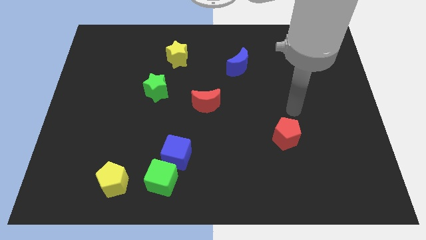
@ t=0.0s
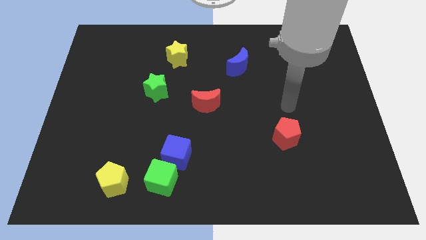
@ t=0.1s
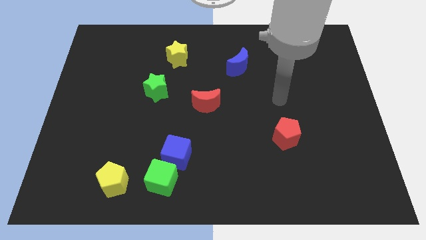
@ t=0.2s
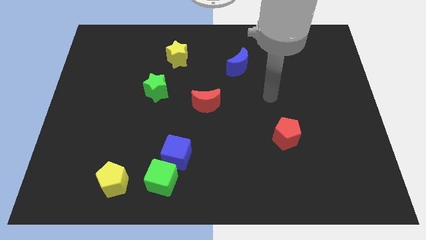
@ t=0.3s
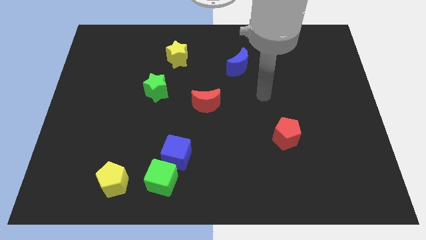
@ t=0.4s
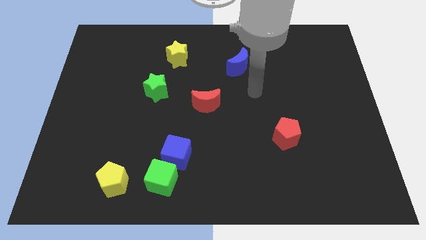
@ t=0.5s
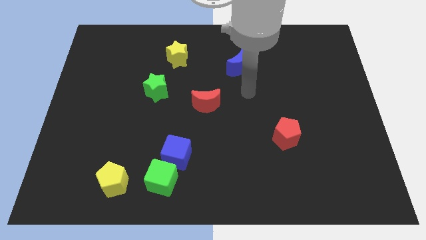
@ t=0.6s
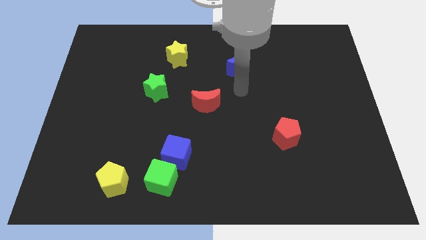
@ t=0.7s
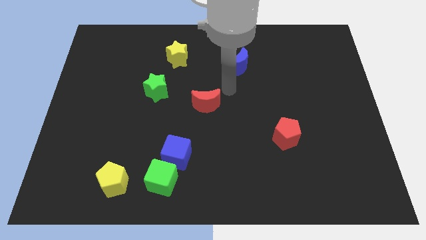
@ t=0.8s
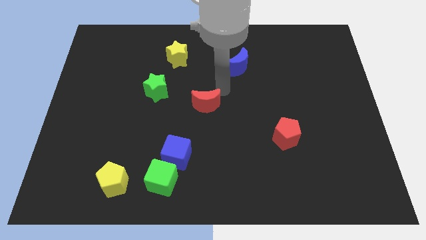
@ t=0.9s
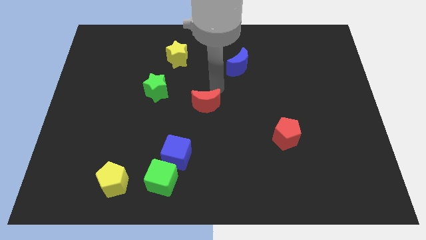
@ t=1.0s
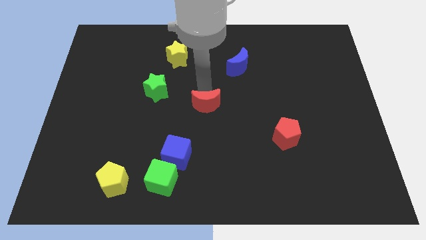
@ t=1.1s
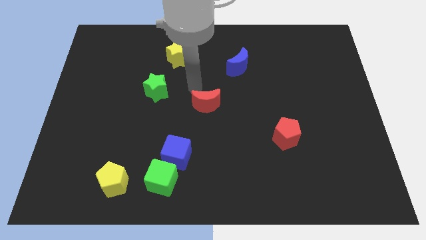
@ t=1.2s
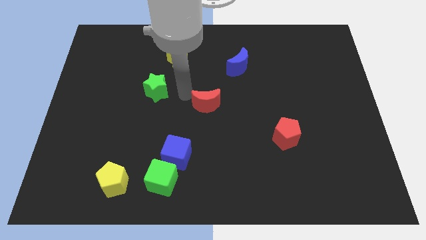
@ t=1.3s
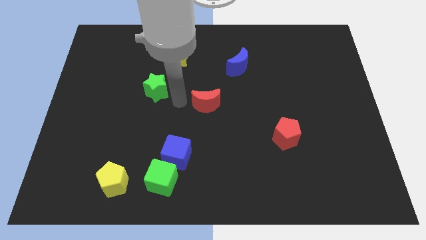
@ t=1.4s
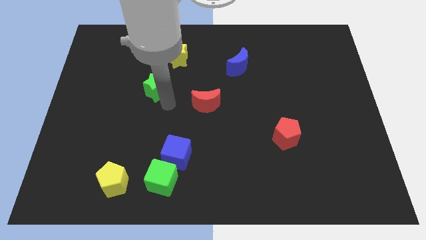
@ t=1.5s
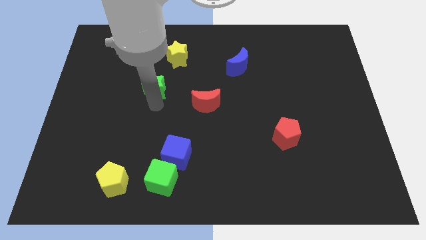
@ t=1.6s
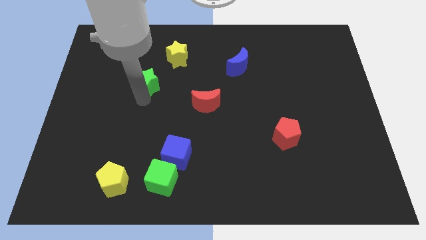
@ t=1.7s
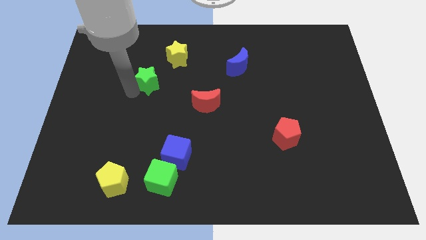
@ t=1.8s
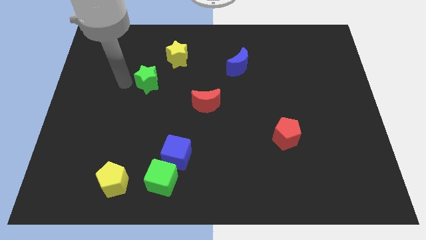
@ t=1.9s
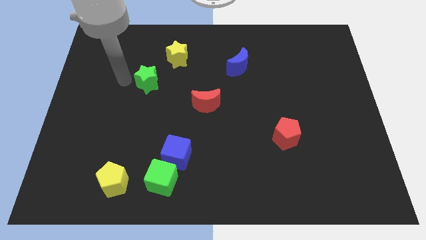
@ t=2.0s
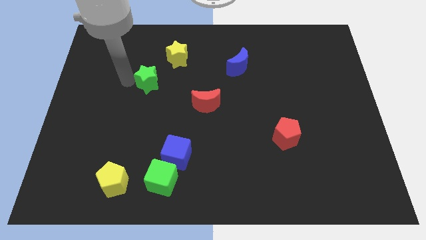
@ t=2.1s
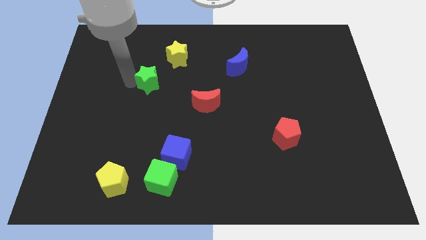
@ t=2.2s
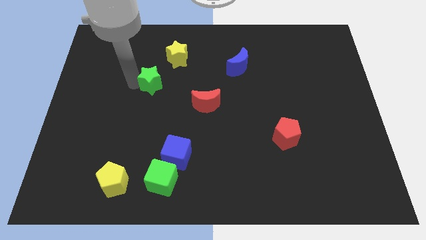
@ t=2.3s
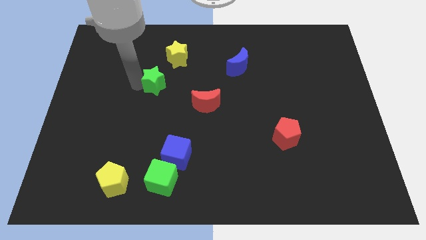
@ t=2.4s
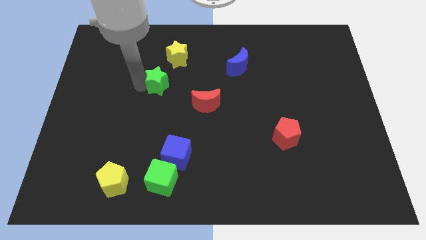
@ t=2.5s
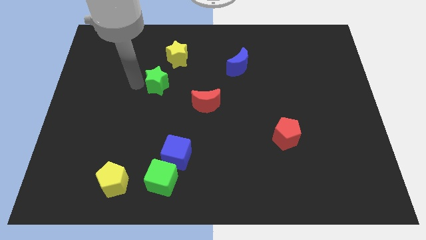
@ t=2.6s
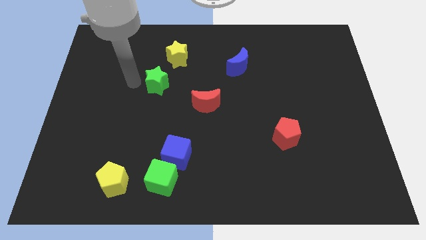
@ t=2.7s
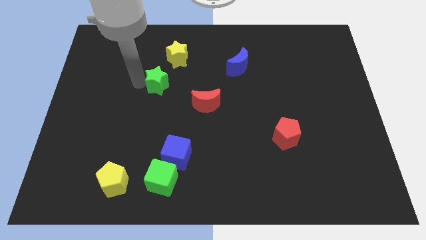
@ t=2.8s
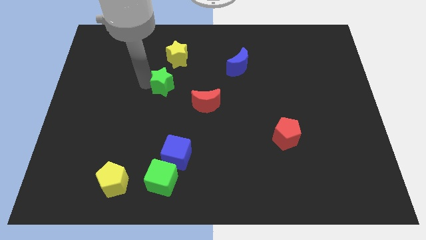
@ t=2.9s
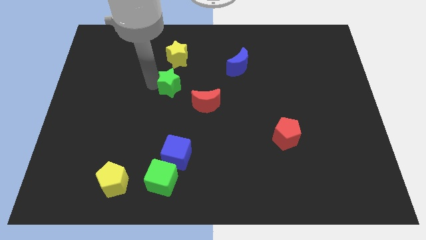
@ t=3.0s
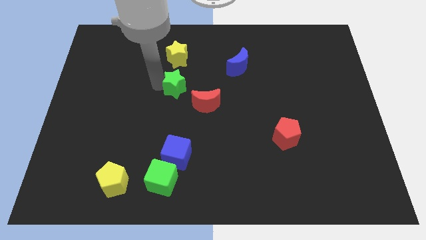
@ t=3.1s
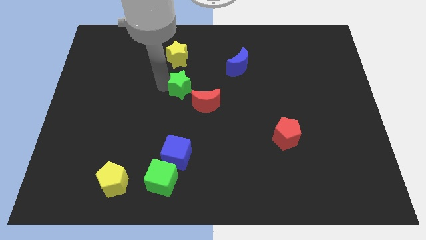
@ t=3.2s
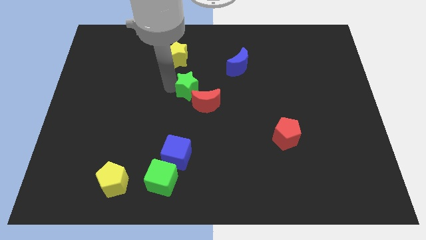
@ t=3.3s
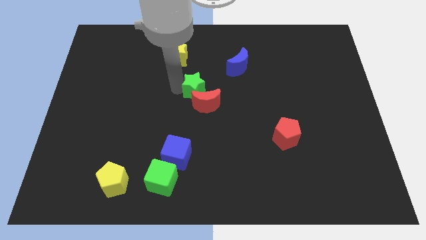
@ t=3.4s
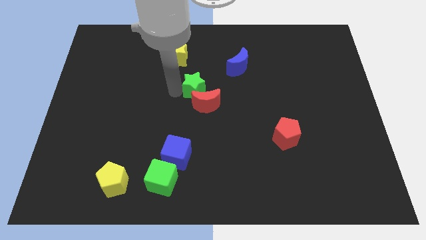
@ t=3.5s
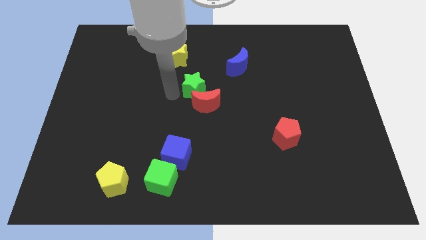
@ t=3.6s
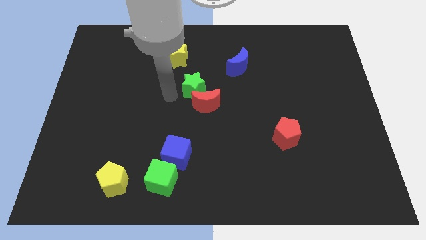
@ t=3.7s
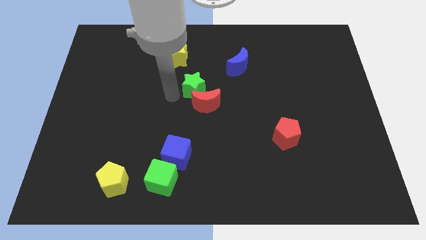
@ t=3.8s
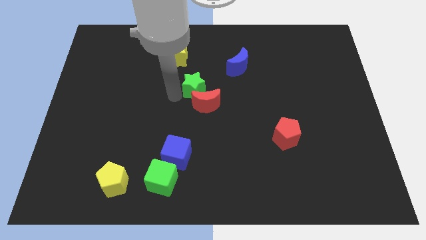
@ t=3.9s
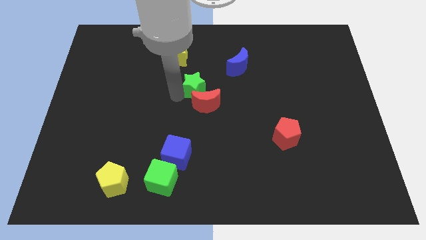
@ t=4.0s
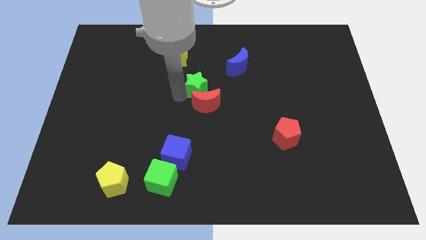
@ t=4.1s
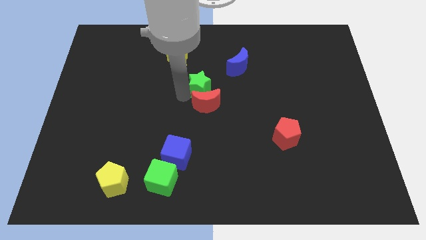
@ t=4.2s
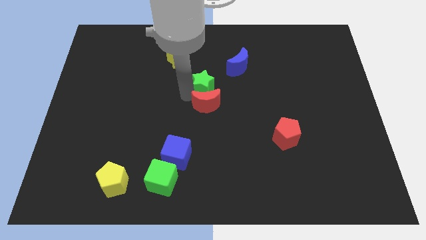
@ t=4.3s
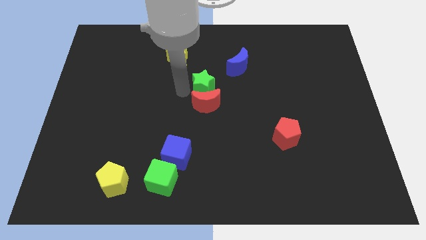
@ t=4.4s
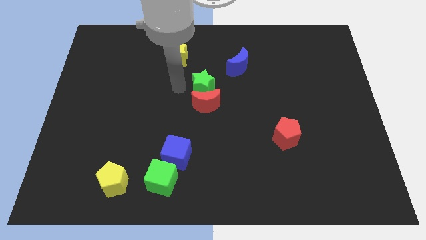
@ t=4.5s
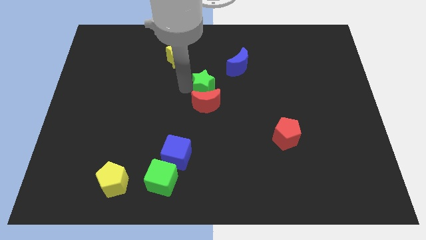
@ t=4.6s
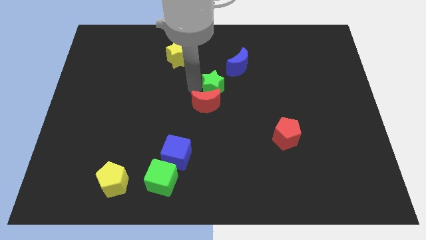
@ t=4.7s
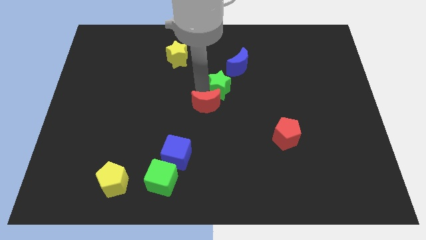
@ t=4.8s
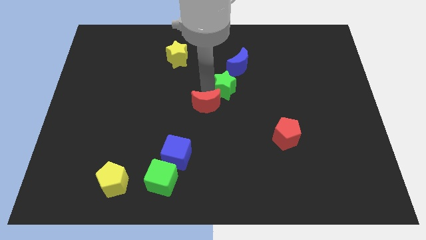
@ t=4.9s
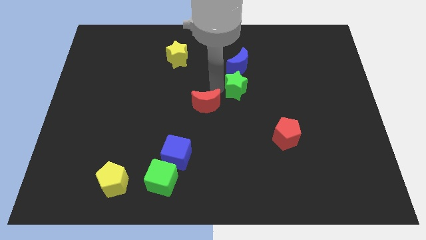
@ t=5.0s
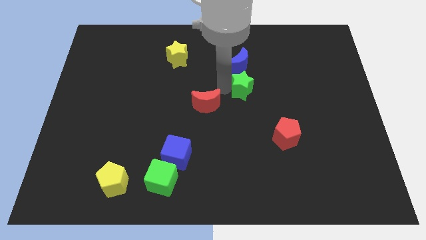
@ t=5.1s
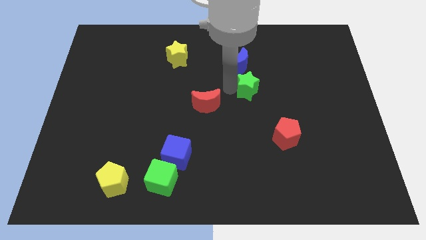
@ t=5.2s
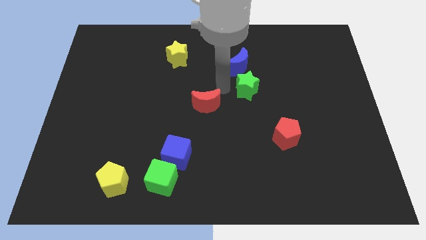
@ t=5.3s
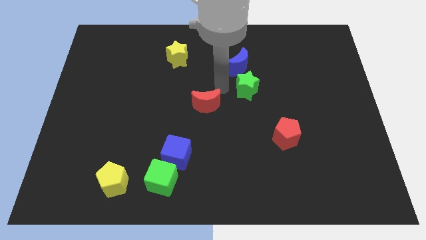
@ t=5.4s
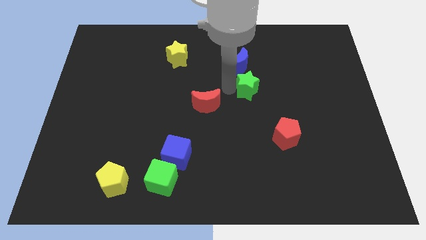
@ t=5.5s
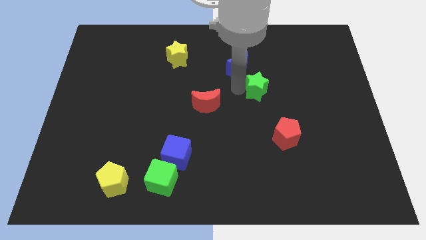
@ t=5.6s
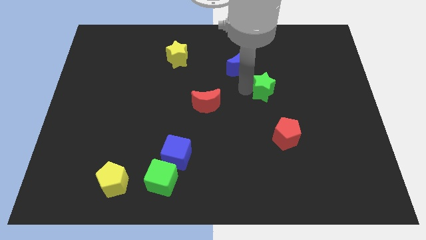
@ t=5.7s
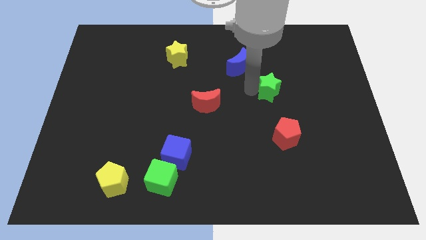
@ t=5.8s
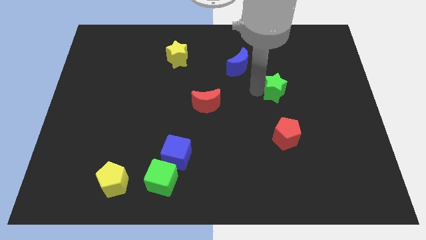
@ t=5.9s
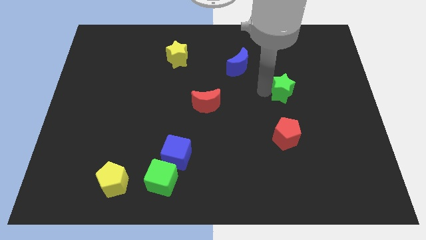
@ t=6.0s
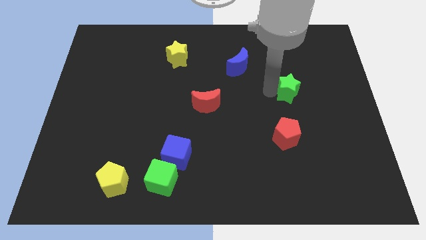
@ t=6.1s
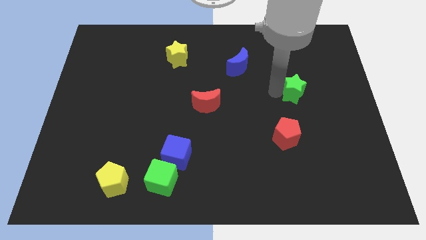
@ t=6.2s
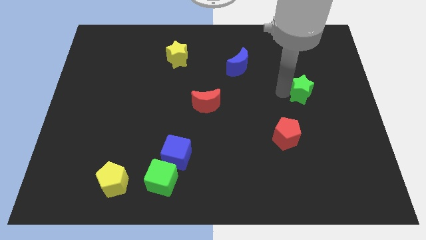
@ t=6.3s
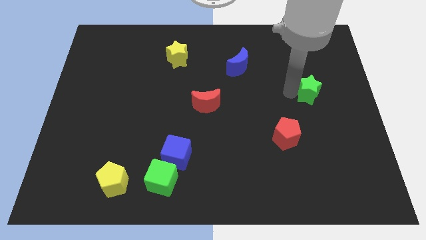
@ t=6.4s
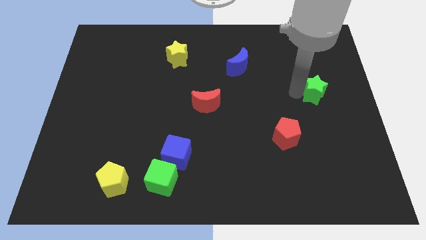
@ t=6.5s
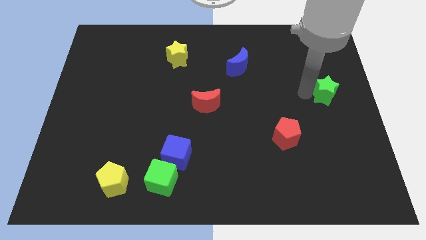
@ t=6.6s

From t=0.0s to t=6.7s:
put the green star to the center right

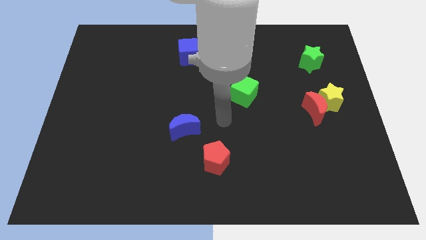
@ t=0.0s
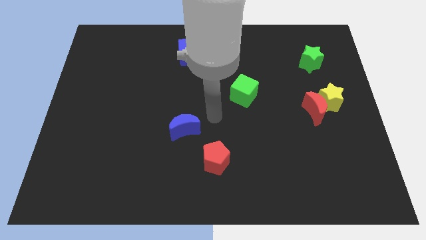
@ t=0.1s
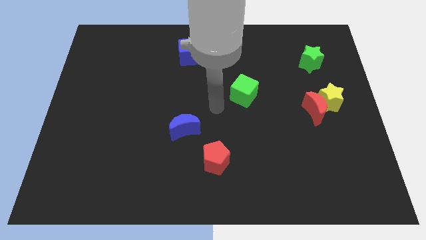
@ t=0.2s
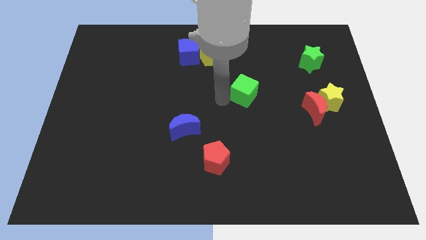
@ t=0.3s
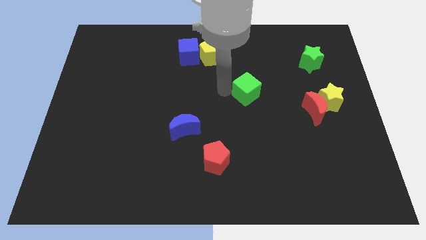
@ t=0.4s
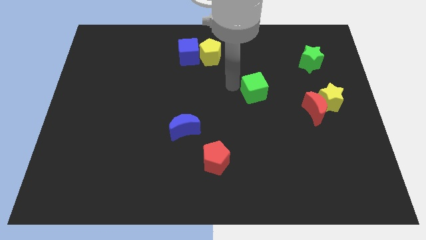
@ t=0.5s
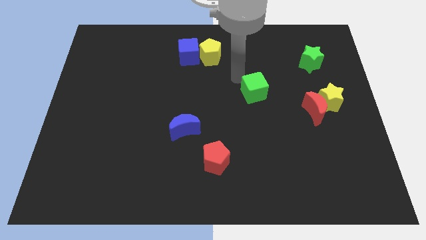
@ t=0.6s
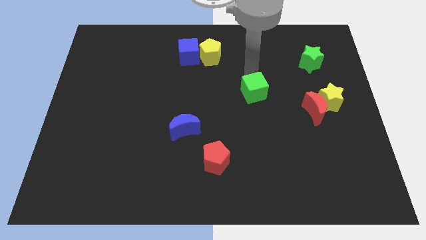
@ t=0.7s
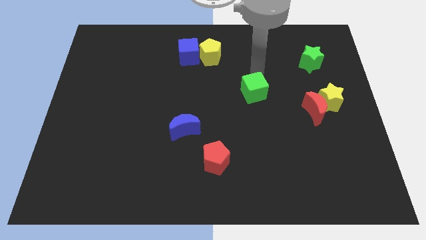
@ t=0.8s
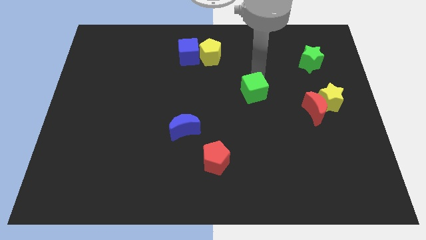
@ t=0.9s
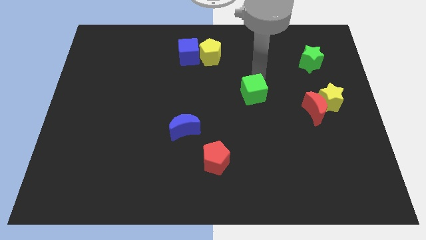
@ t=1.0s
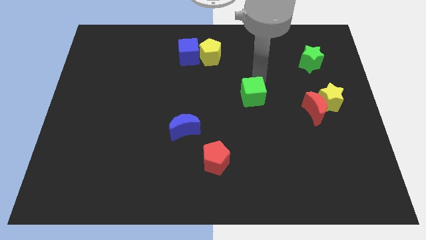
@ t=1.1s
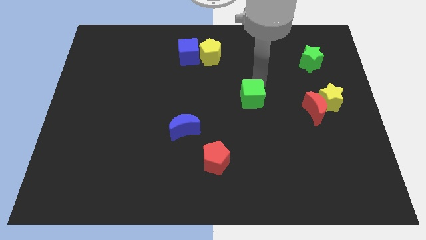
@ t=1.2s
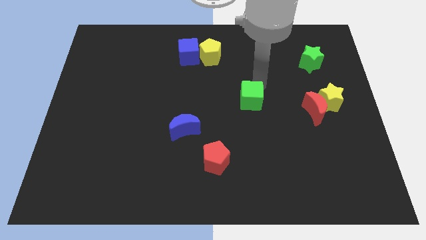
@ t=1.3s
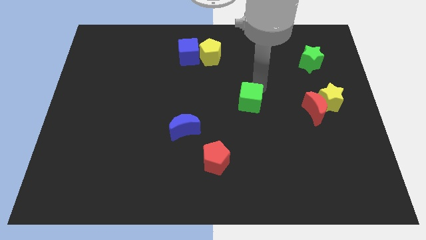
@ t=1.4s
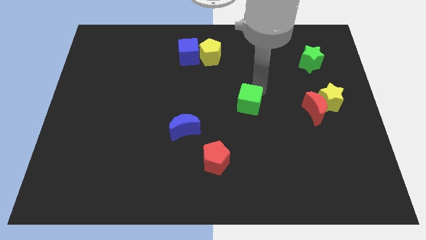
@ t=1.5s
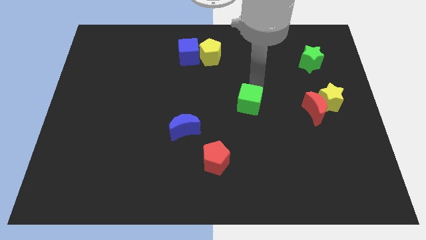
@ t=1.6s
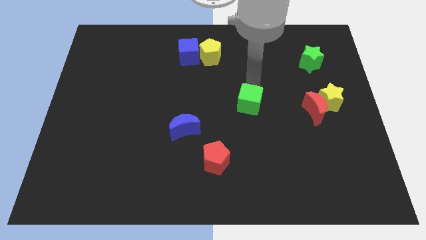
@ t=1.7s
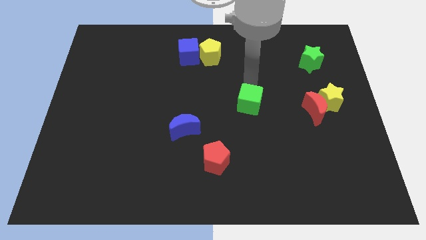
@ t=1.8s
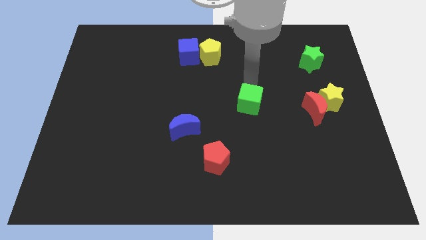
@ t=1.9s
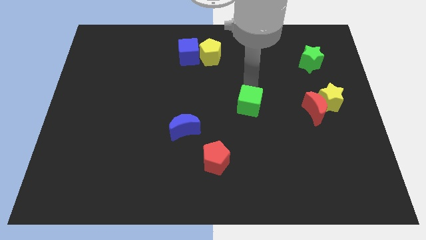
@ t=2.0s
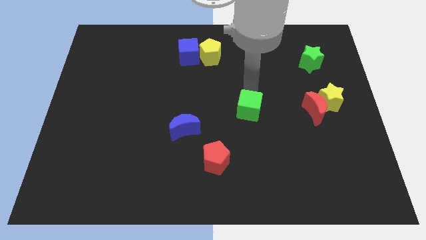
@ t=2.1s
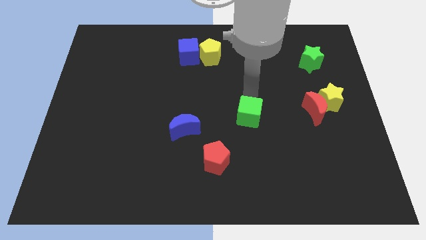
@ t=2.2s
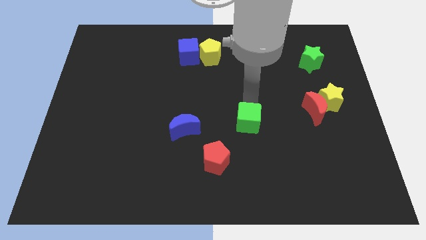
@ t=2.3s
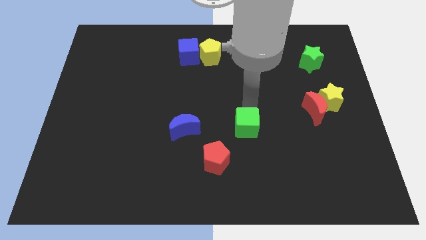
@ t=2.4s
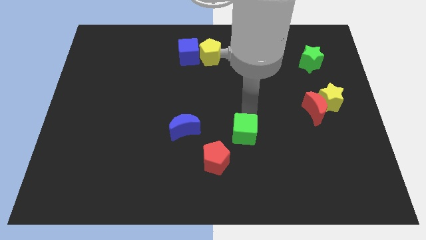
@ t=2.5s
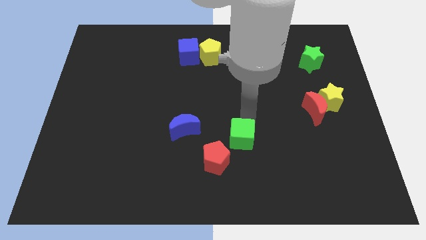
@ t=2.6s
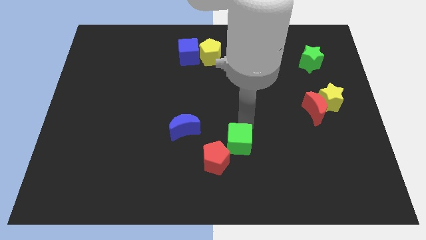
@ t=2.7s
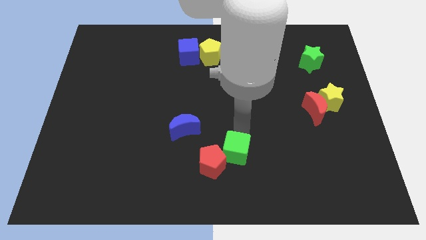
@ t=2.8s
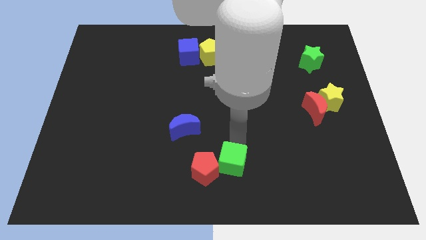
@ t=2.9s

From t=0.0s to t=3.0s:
slide the green cube to the bottom side
